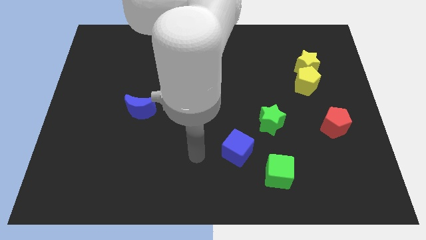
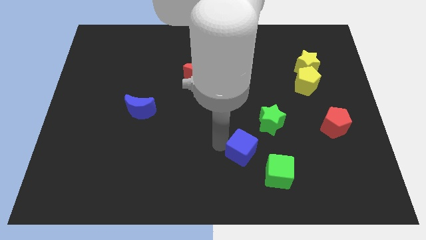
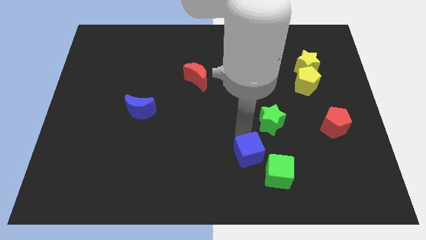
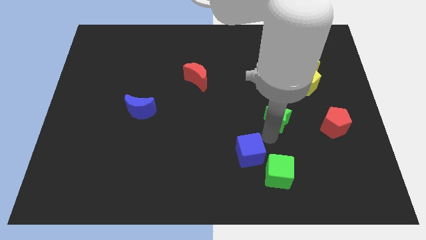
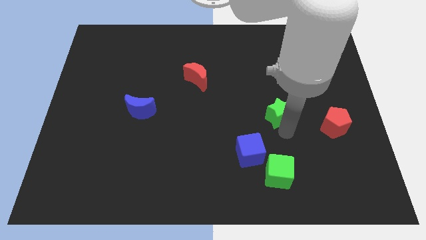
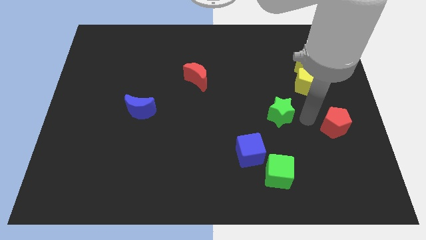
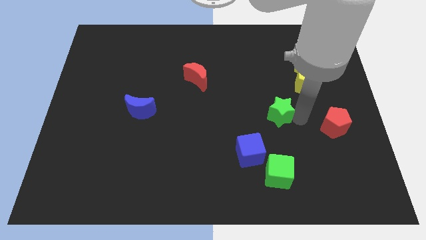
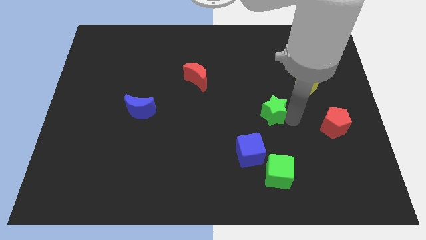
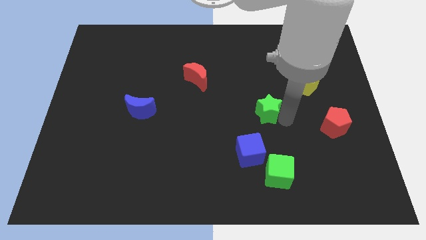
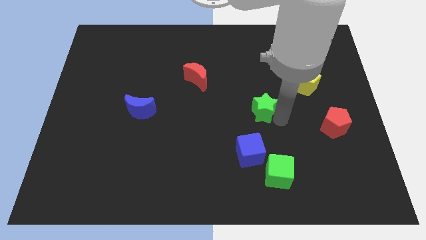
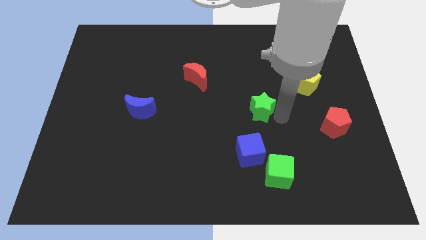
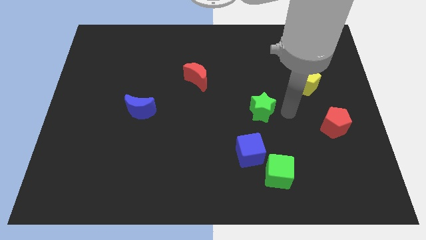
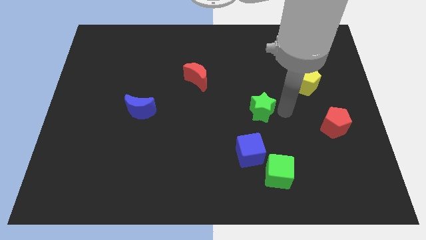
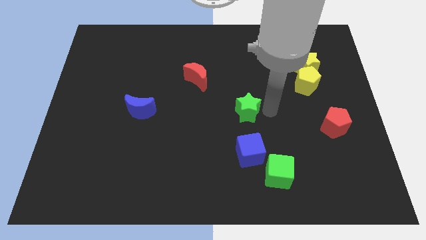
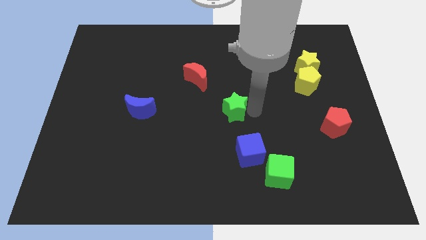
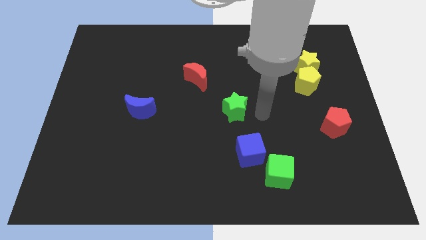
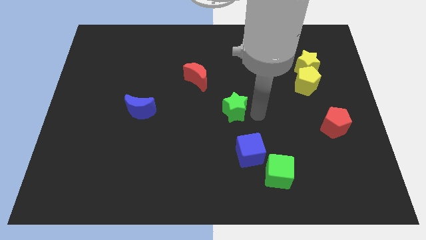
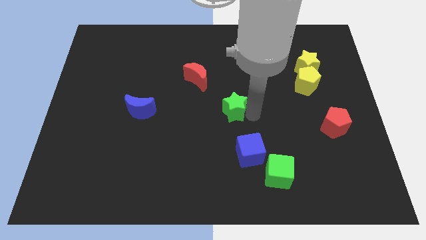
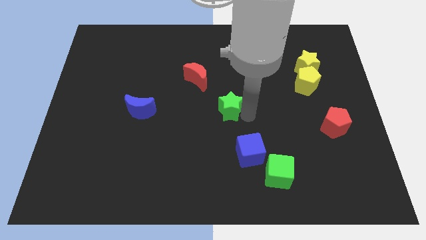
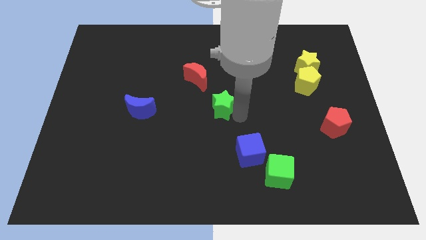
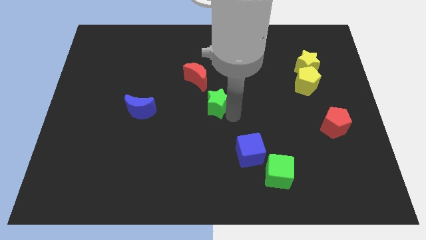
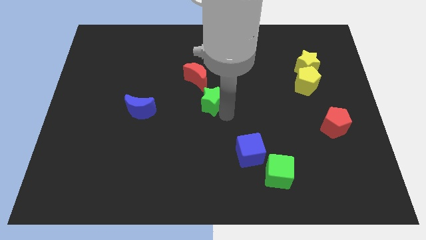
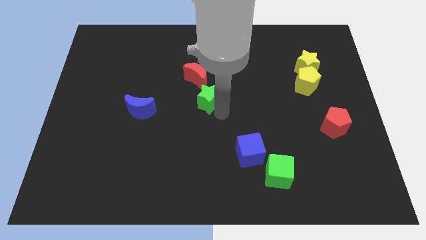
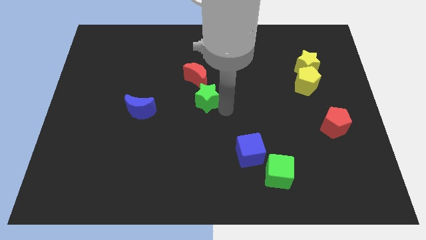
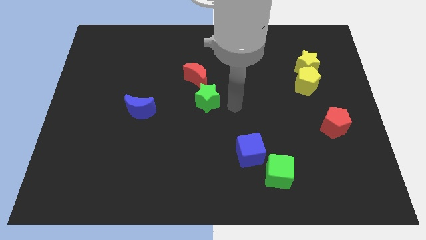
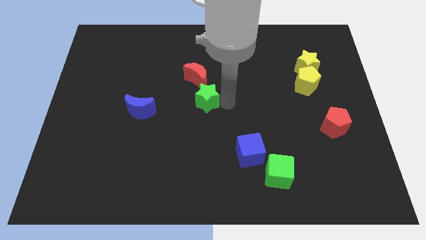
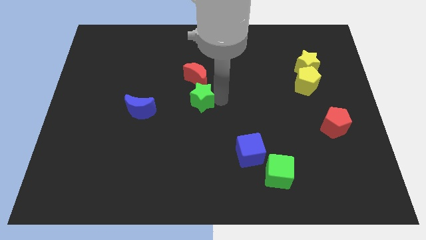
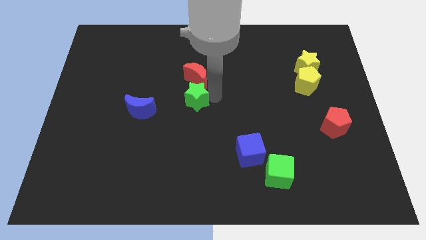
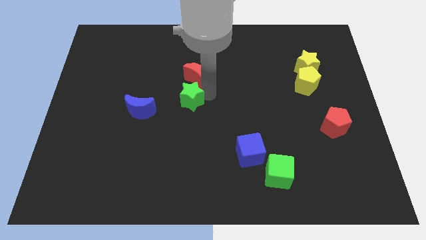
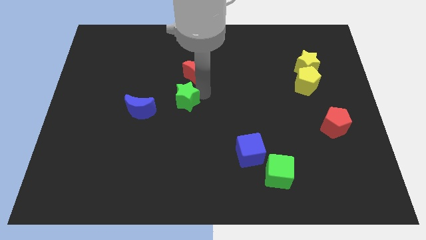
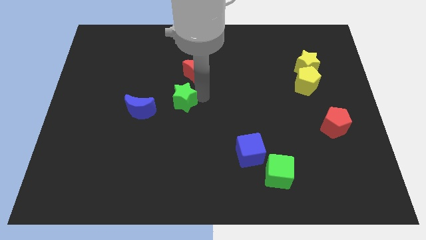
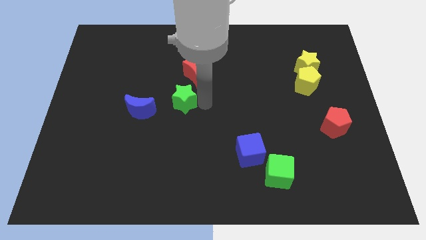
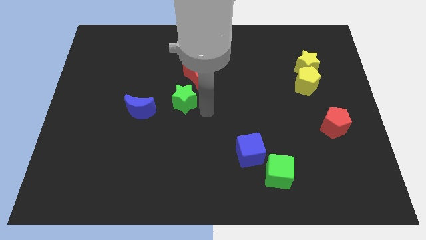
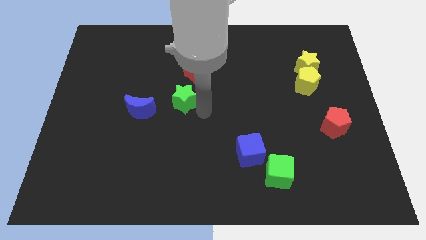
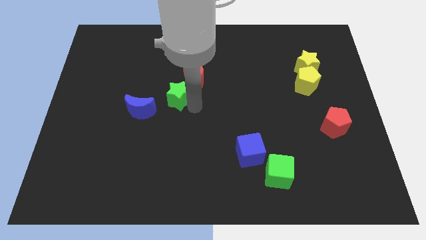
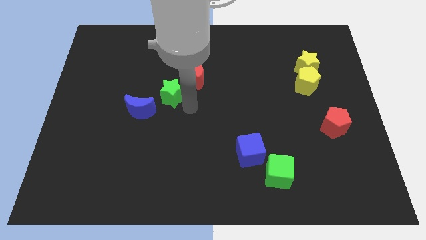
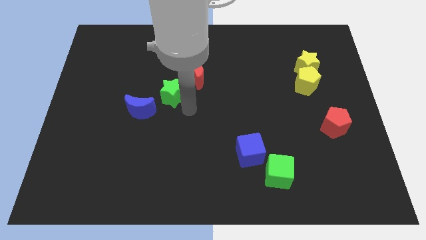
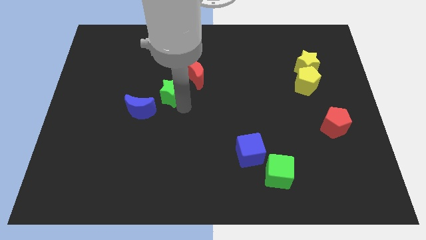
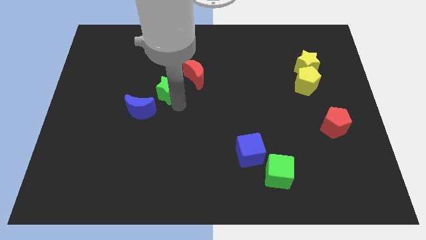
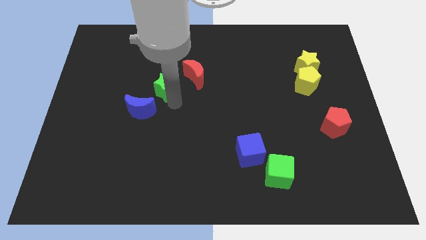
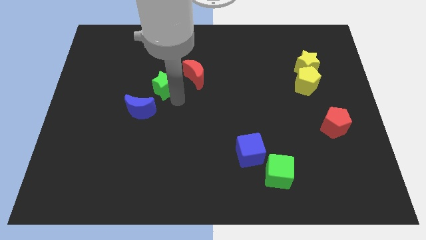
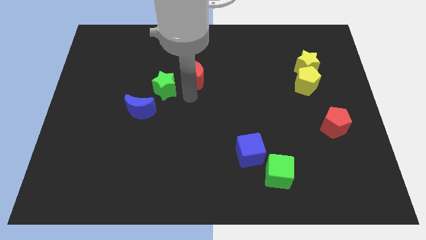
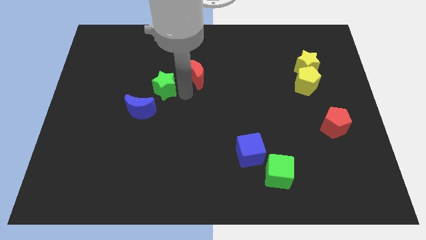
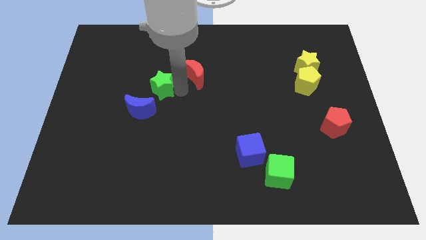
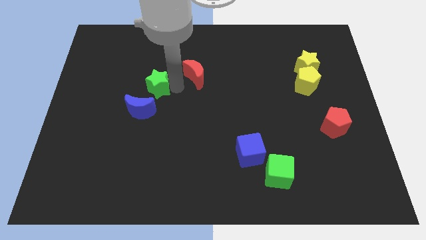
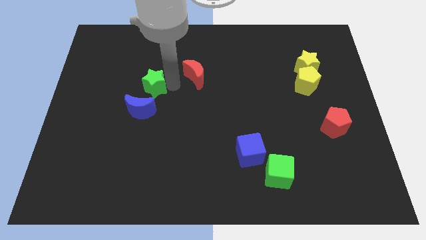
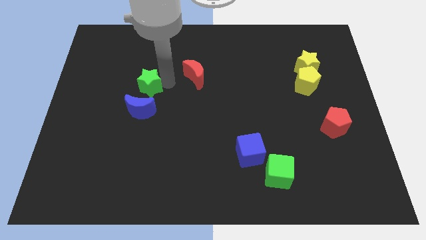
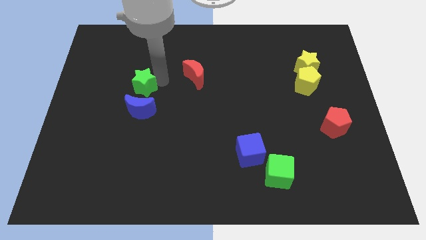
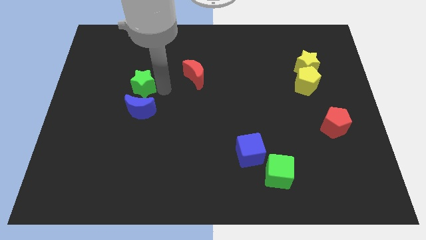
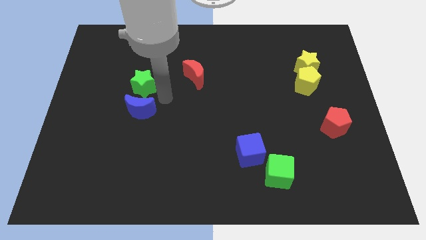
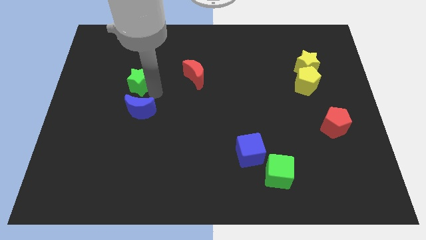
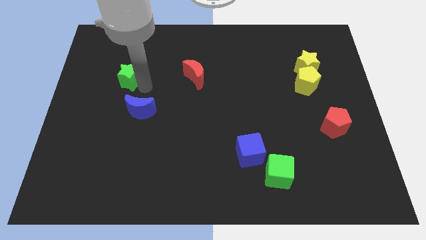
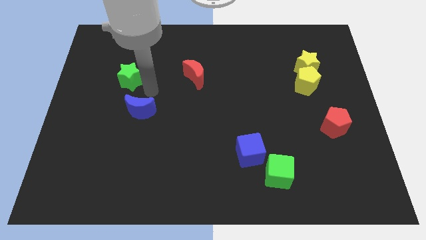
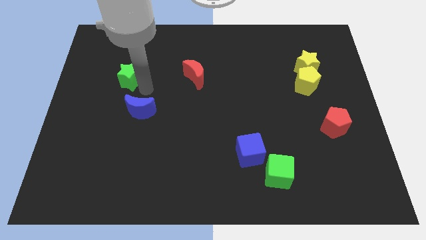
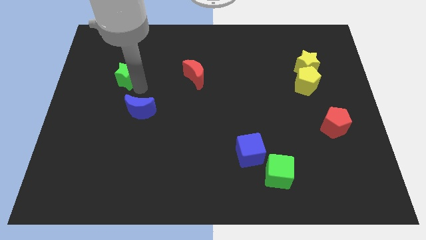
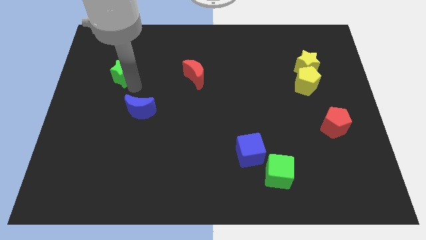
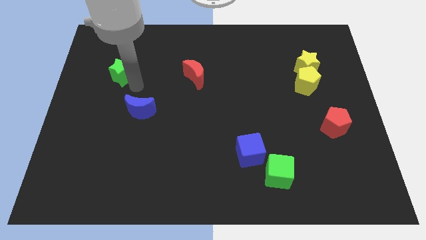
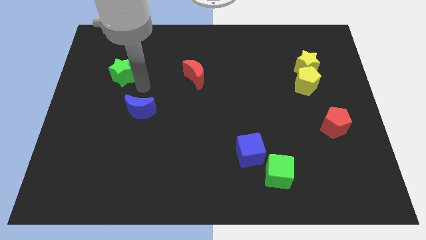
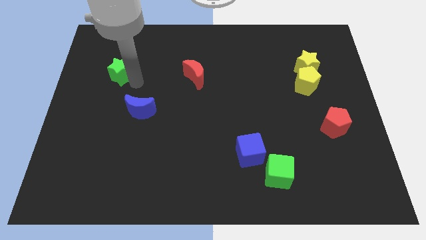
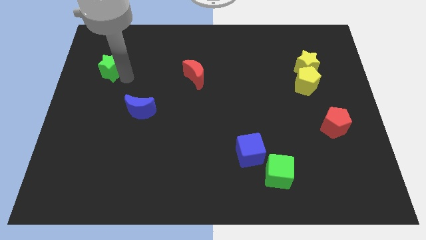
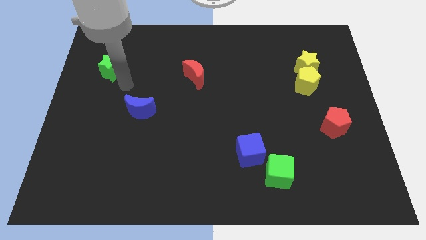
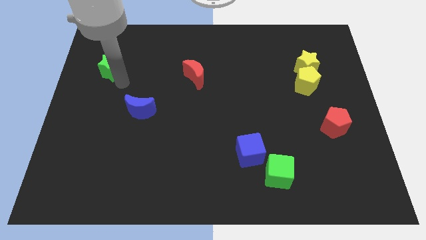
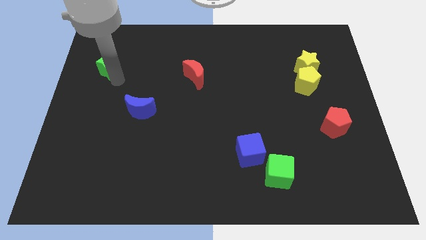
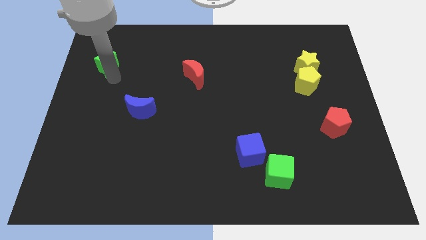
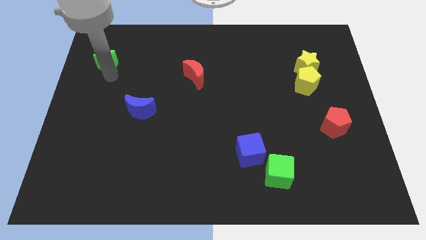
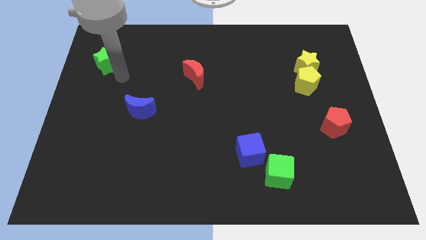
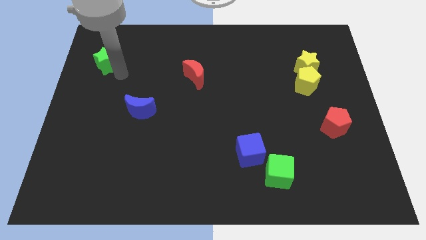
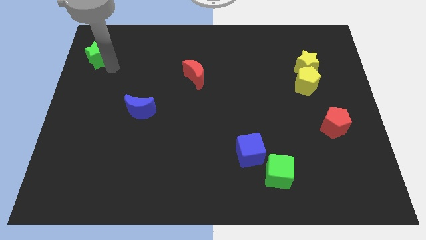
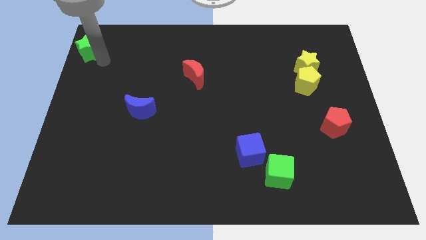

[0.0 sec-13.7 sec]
put the green star to the upper left corner
